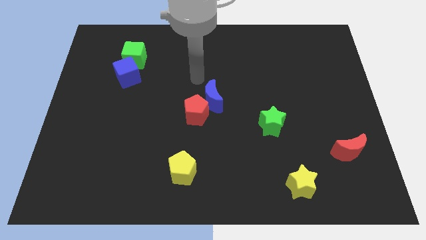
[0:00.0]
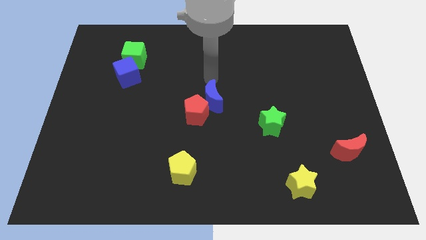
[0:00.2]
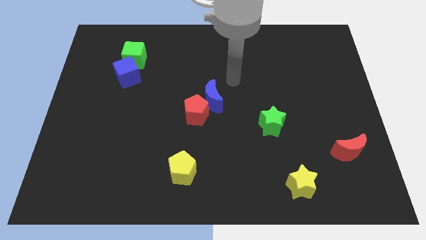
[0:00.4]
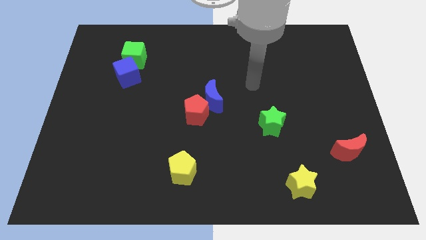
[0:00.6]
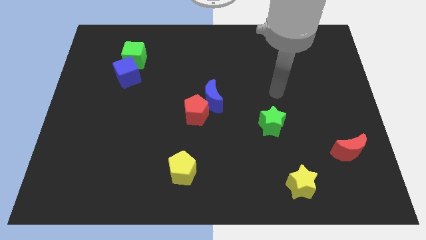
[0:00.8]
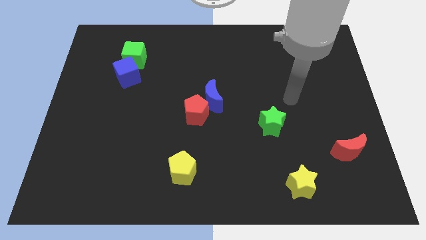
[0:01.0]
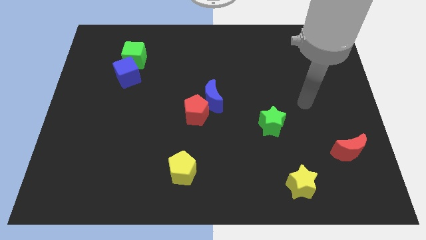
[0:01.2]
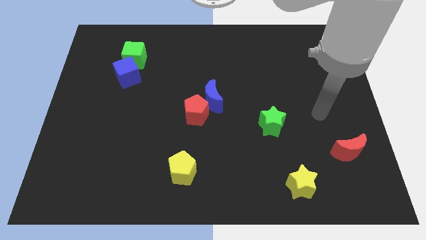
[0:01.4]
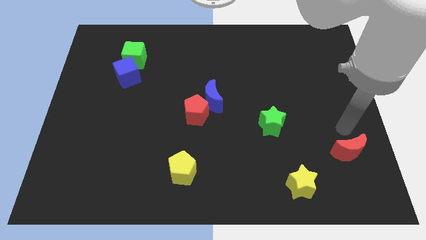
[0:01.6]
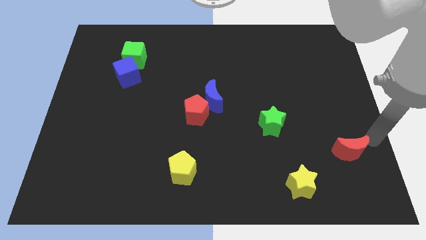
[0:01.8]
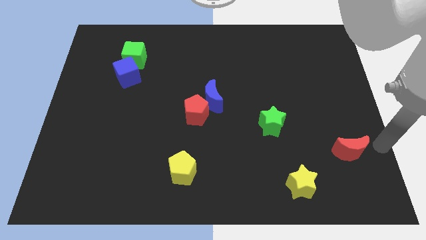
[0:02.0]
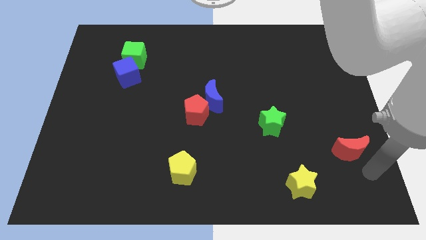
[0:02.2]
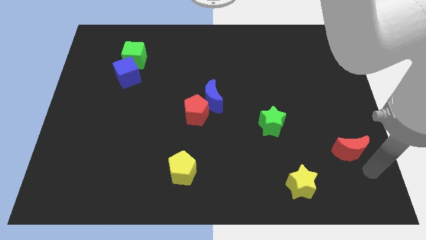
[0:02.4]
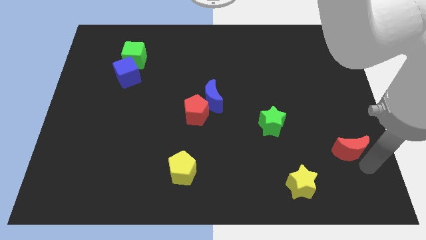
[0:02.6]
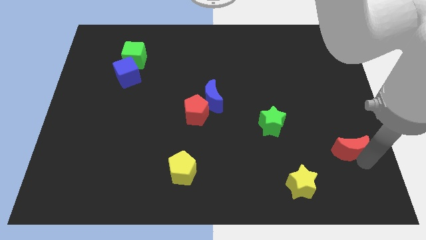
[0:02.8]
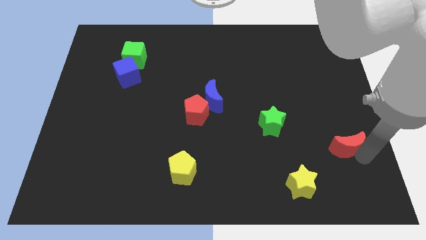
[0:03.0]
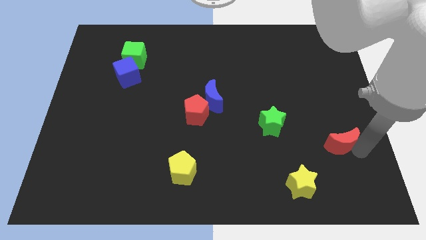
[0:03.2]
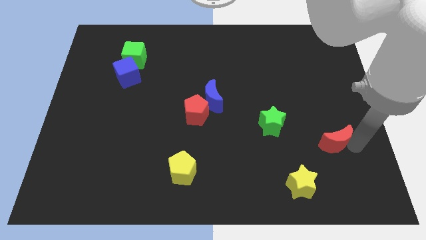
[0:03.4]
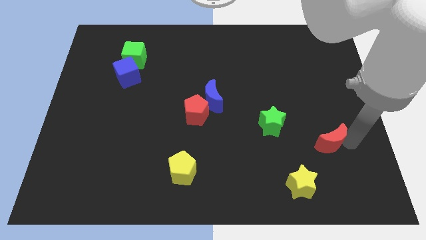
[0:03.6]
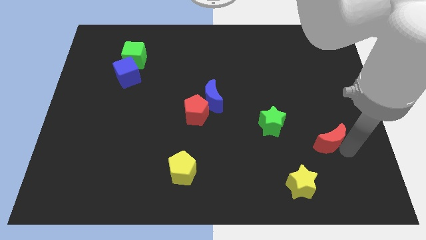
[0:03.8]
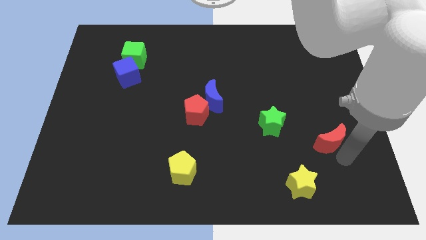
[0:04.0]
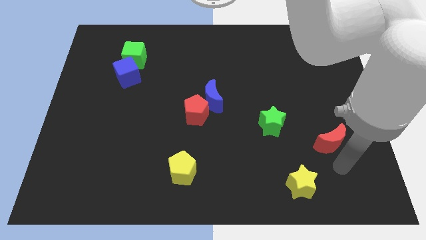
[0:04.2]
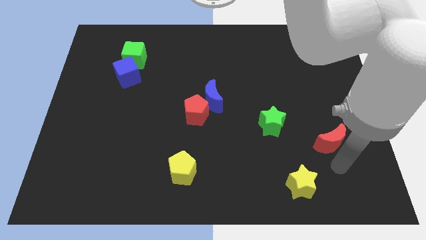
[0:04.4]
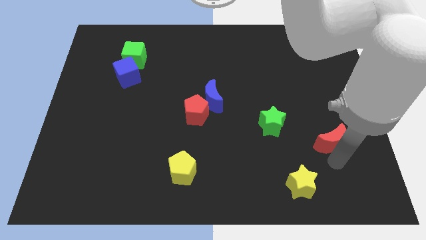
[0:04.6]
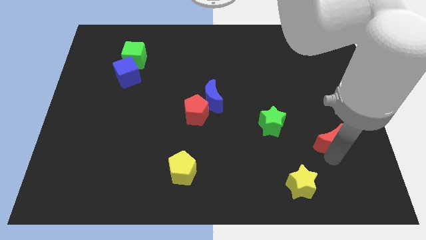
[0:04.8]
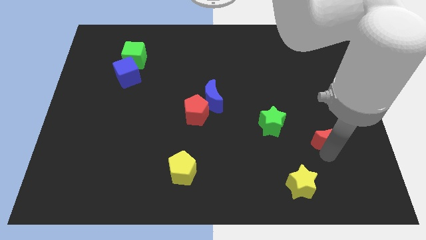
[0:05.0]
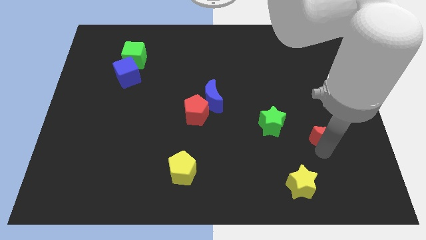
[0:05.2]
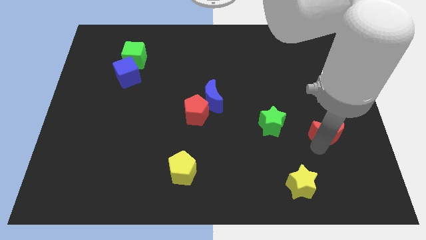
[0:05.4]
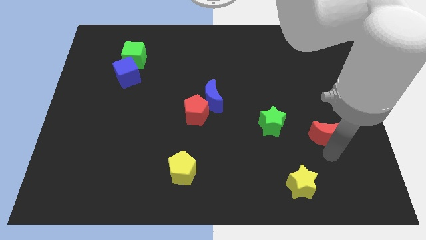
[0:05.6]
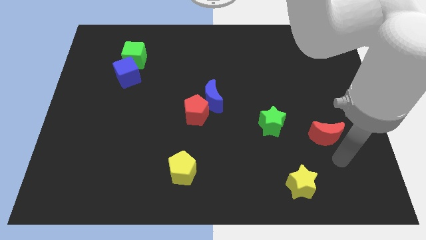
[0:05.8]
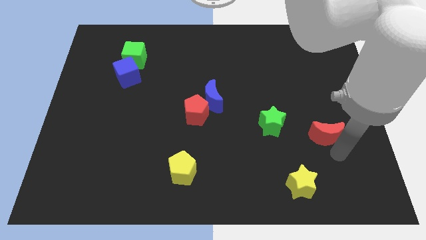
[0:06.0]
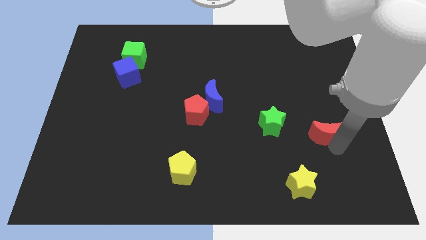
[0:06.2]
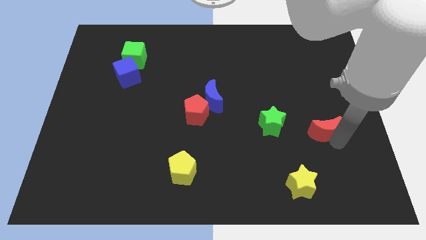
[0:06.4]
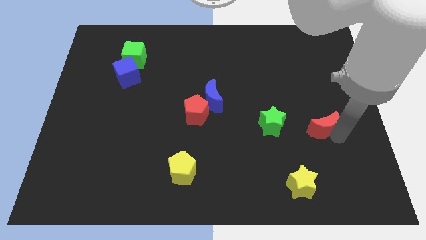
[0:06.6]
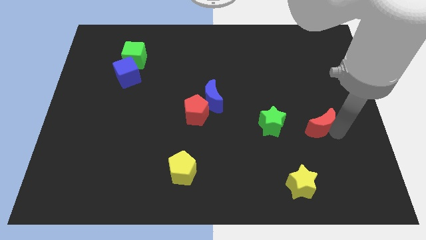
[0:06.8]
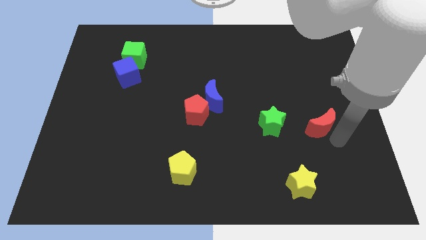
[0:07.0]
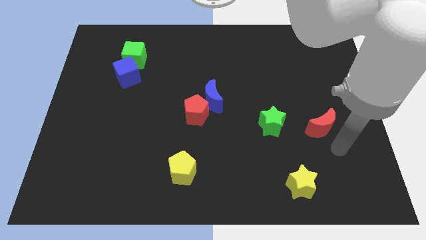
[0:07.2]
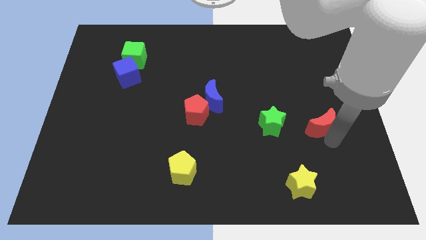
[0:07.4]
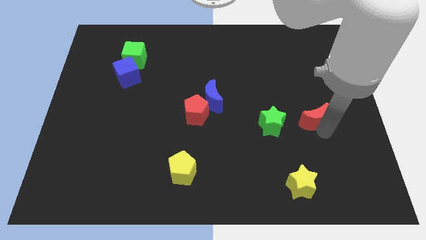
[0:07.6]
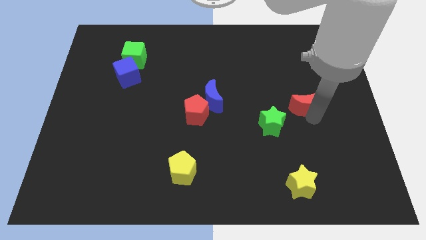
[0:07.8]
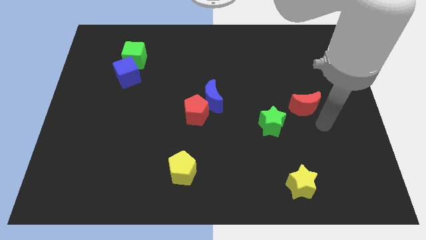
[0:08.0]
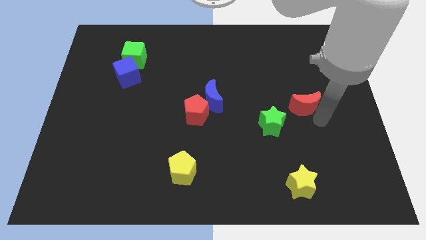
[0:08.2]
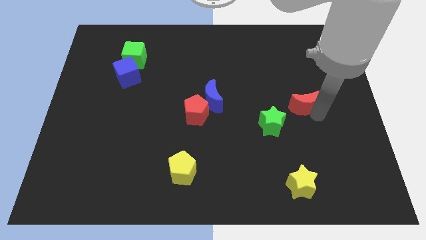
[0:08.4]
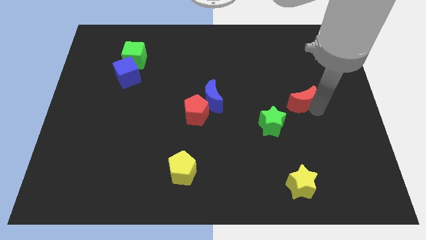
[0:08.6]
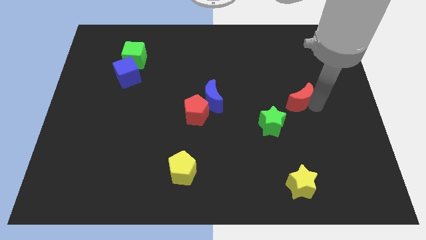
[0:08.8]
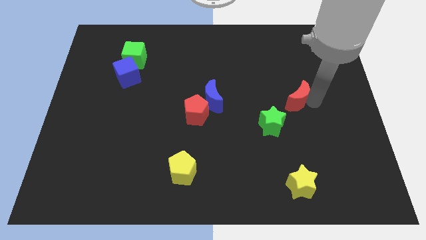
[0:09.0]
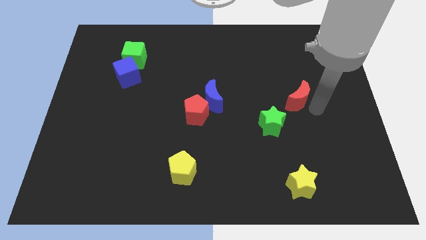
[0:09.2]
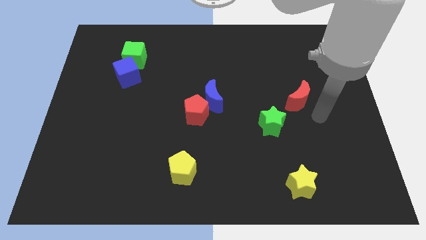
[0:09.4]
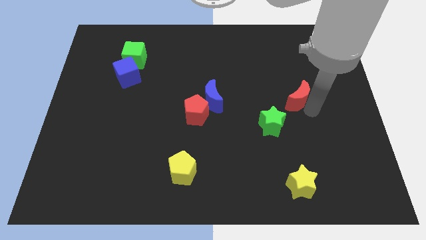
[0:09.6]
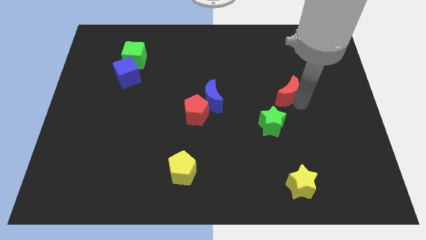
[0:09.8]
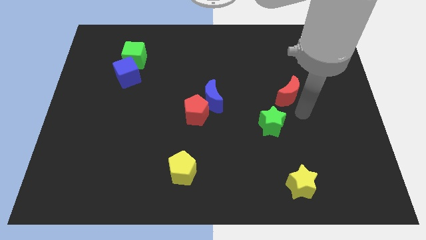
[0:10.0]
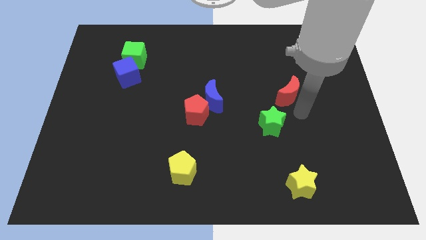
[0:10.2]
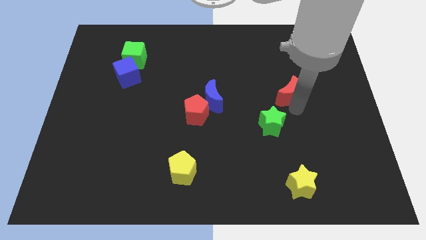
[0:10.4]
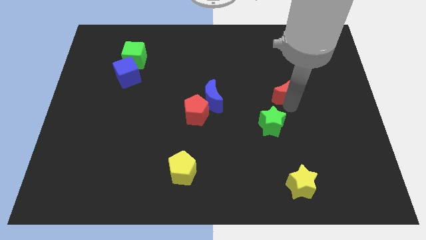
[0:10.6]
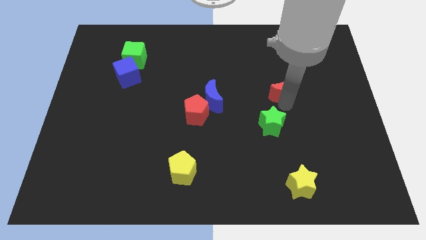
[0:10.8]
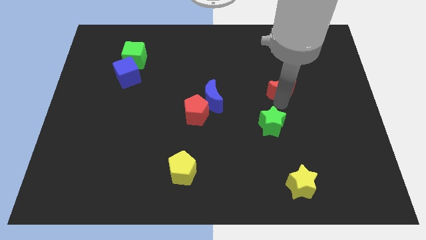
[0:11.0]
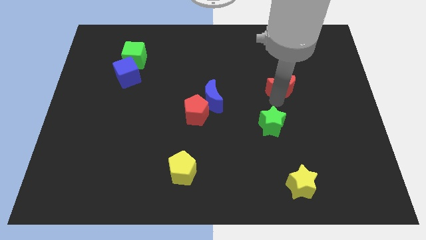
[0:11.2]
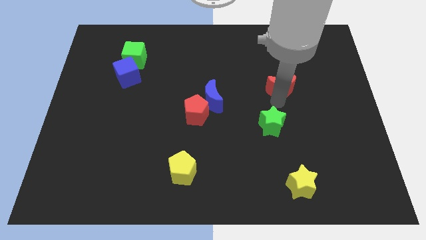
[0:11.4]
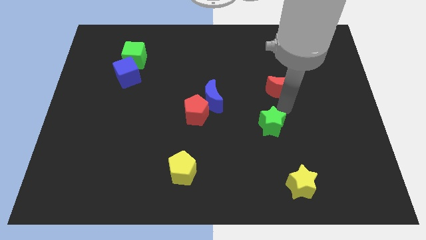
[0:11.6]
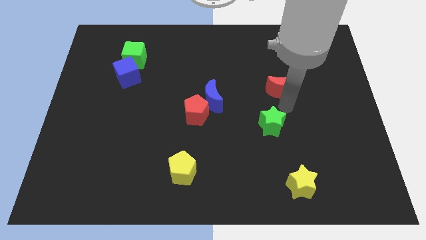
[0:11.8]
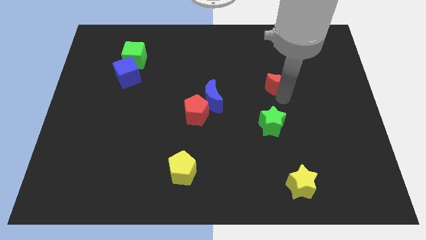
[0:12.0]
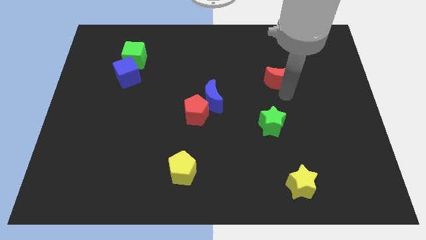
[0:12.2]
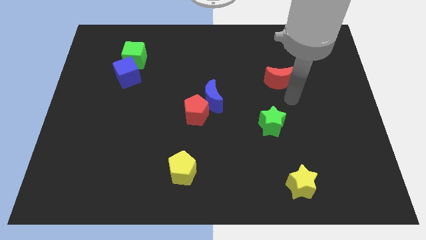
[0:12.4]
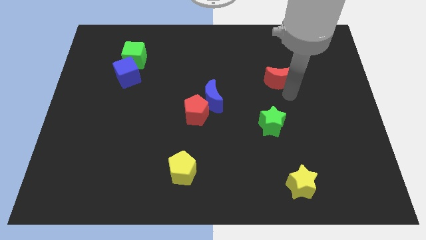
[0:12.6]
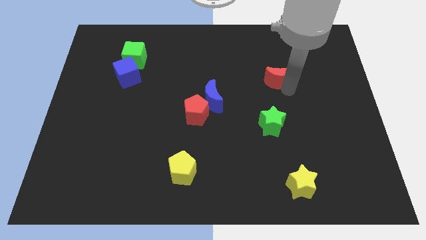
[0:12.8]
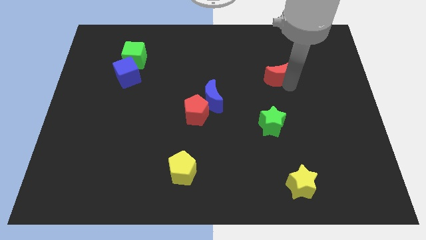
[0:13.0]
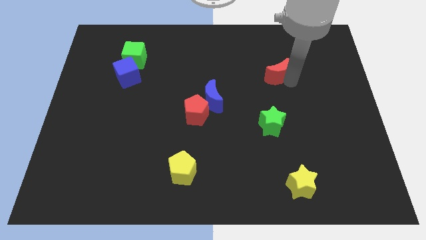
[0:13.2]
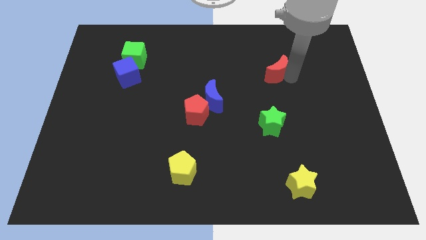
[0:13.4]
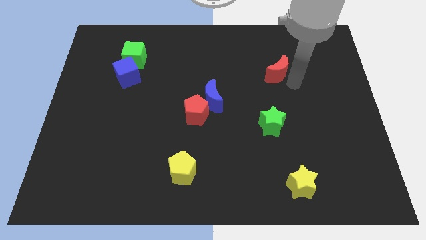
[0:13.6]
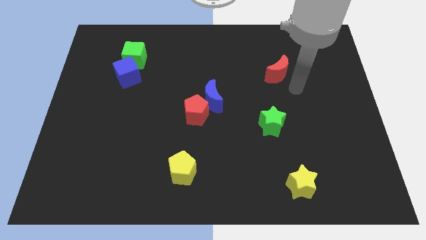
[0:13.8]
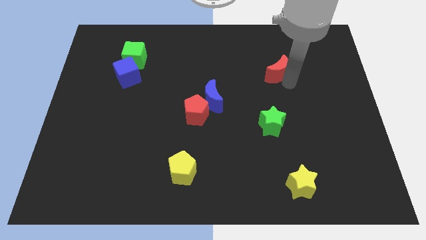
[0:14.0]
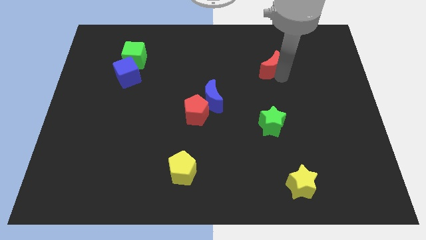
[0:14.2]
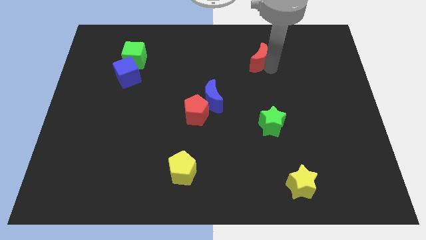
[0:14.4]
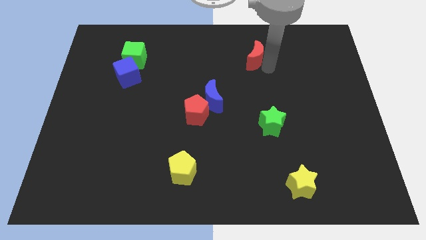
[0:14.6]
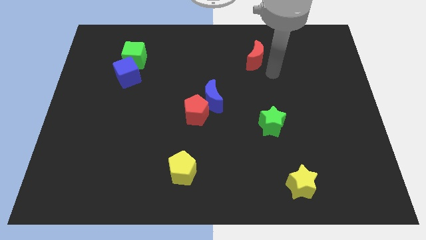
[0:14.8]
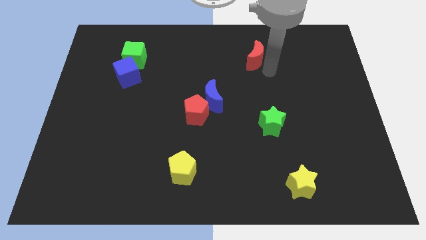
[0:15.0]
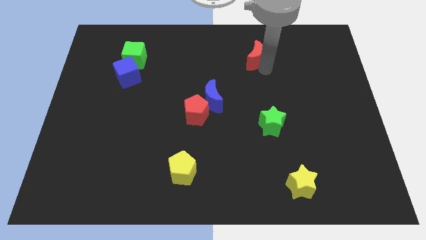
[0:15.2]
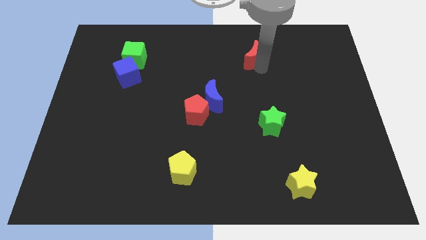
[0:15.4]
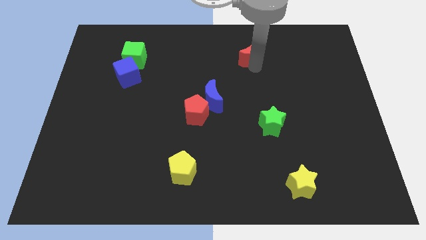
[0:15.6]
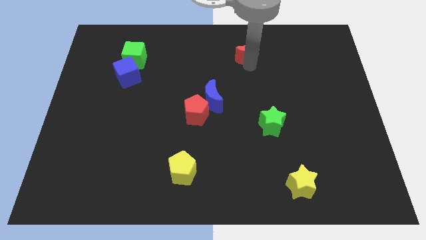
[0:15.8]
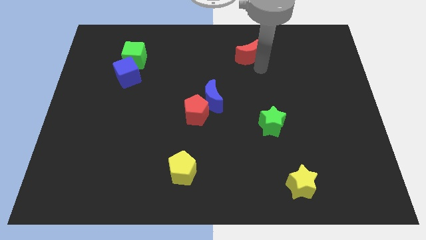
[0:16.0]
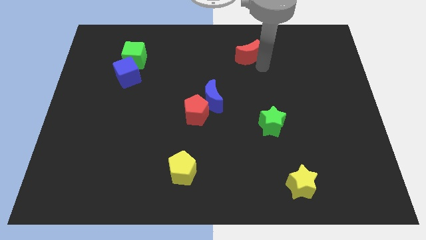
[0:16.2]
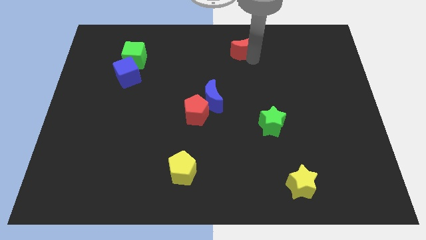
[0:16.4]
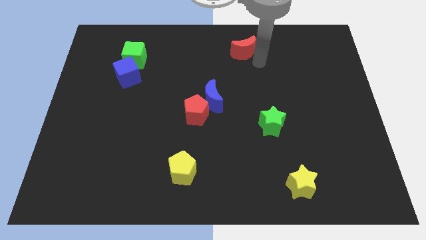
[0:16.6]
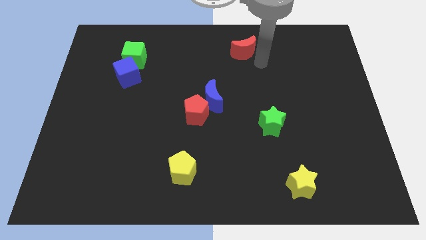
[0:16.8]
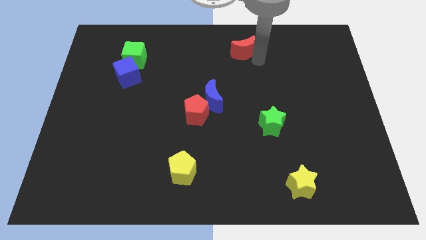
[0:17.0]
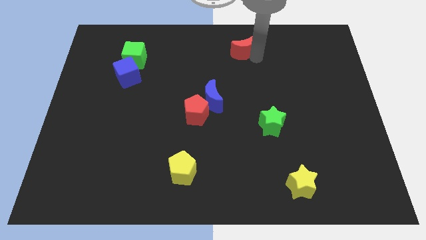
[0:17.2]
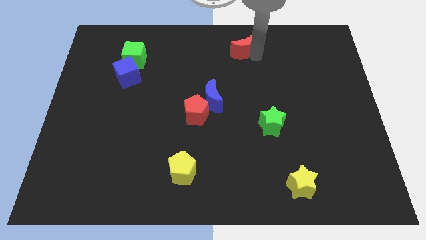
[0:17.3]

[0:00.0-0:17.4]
move the red moon to the top side
